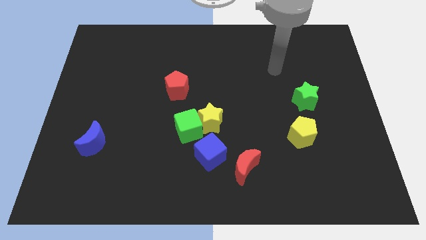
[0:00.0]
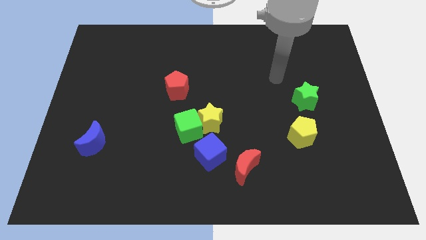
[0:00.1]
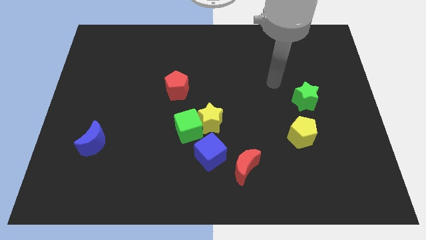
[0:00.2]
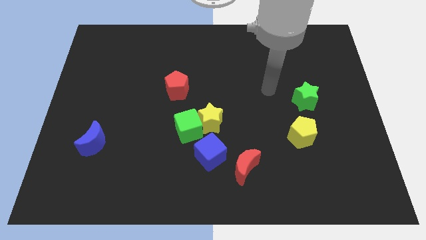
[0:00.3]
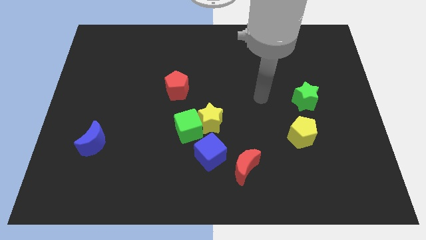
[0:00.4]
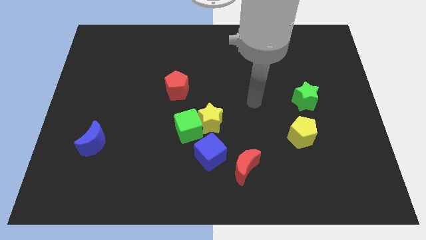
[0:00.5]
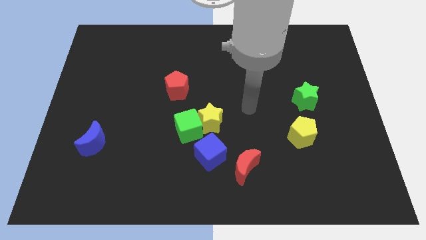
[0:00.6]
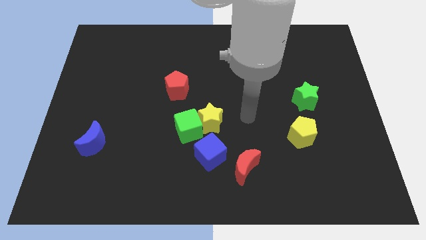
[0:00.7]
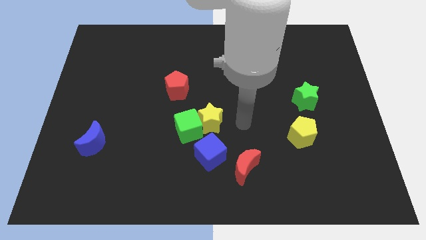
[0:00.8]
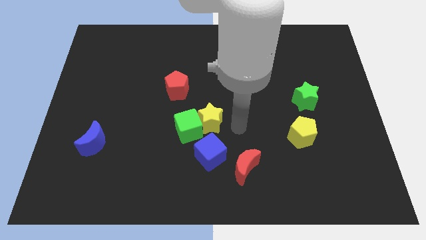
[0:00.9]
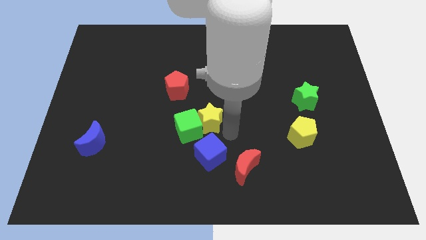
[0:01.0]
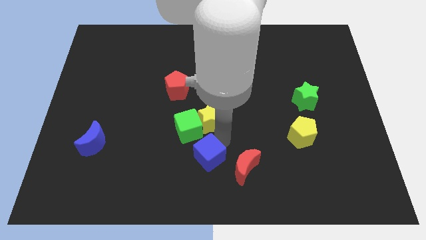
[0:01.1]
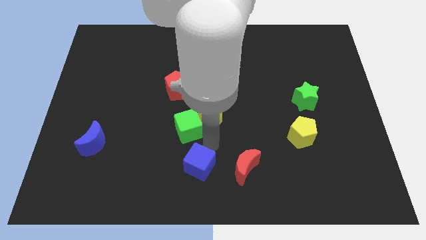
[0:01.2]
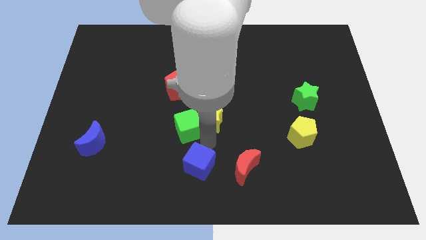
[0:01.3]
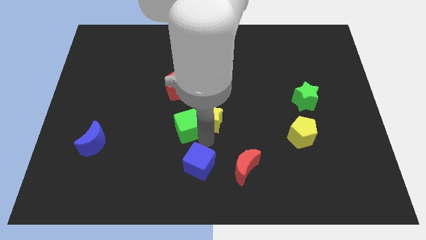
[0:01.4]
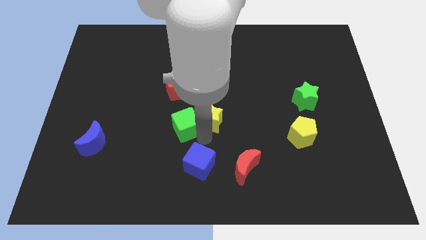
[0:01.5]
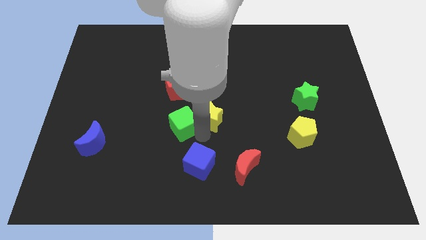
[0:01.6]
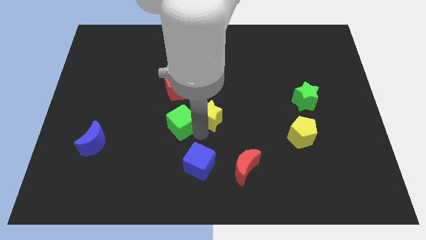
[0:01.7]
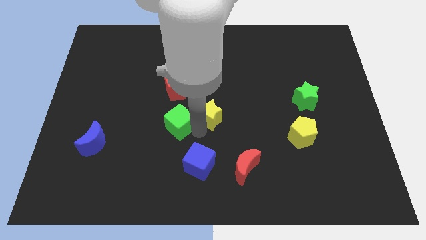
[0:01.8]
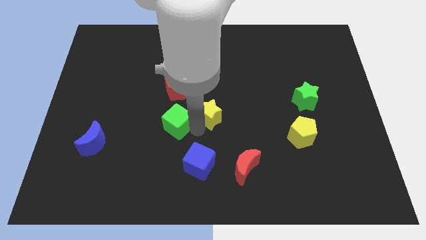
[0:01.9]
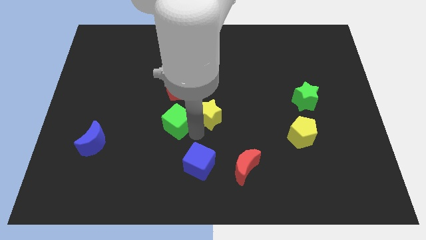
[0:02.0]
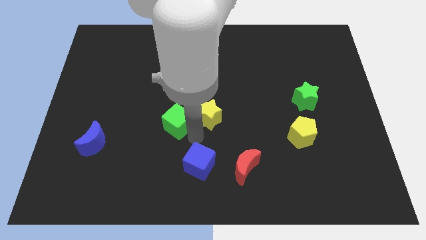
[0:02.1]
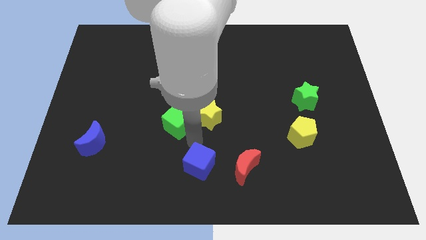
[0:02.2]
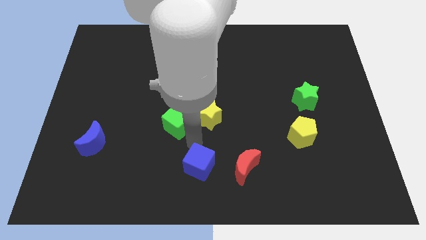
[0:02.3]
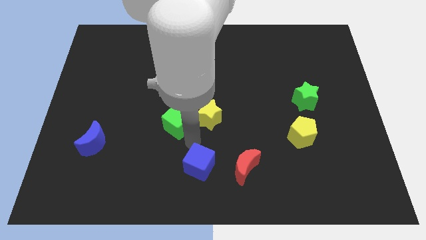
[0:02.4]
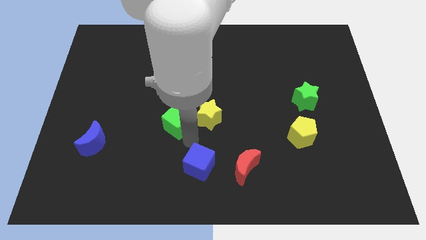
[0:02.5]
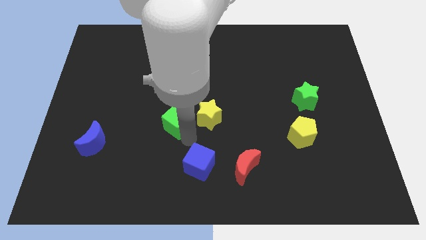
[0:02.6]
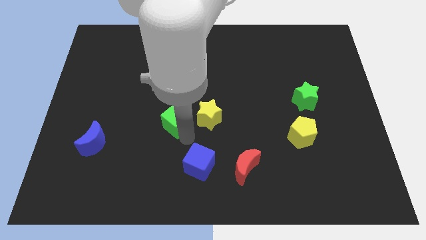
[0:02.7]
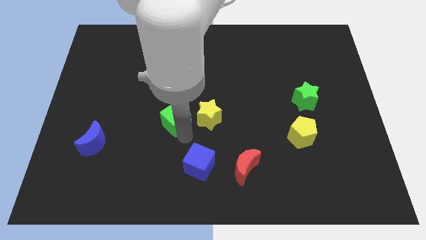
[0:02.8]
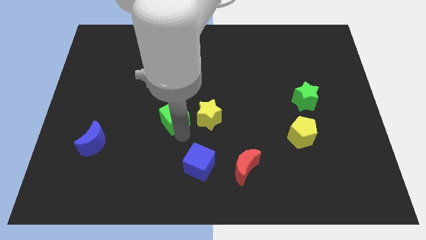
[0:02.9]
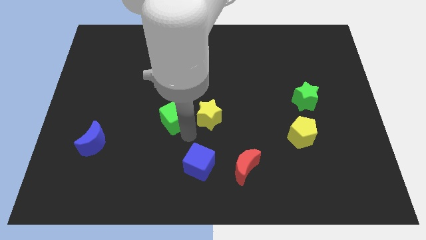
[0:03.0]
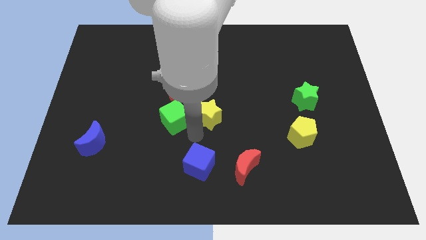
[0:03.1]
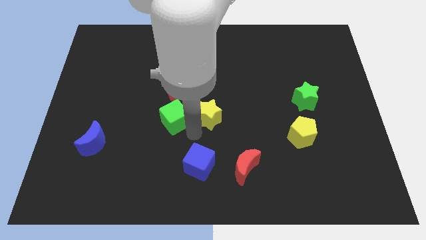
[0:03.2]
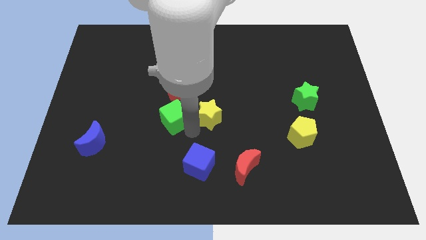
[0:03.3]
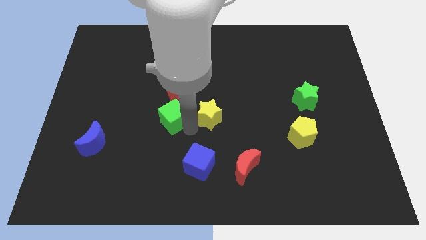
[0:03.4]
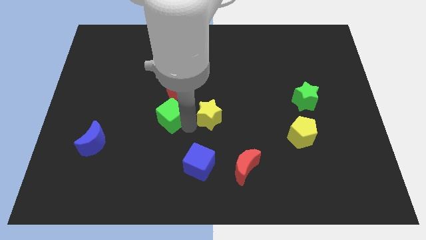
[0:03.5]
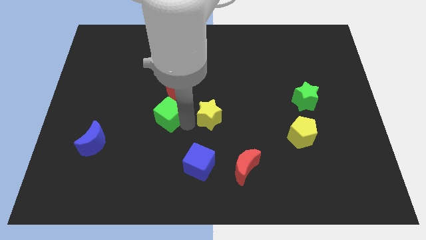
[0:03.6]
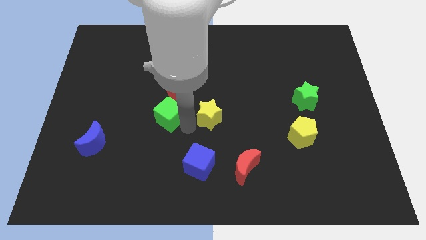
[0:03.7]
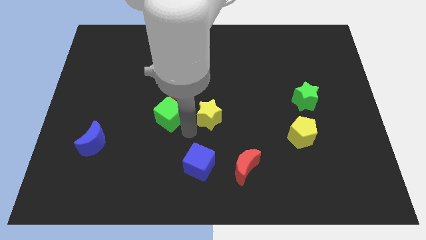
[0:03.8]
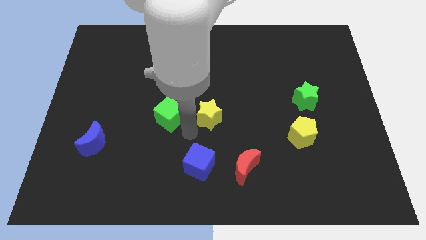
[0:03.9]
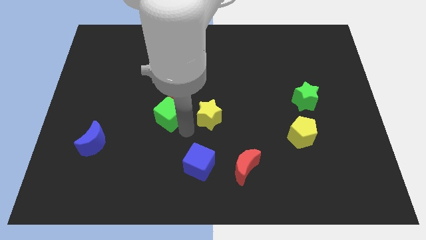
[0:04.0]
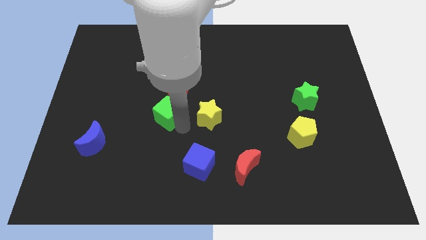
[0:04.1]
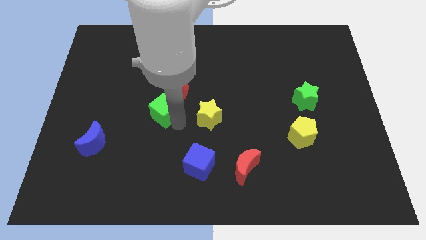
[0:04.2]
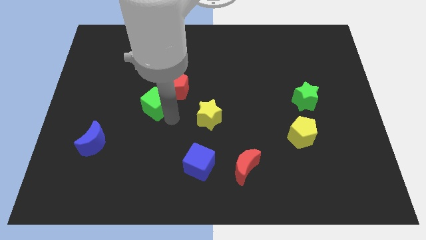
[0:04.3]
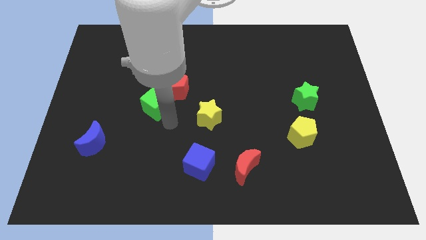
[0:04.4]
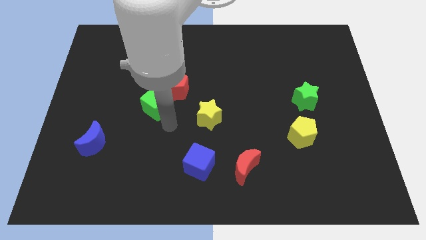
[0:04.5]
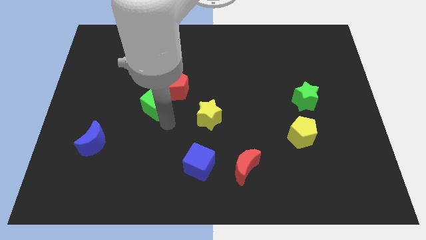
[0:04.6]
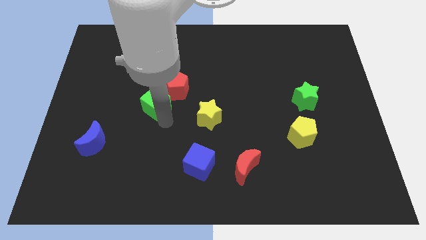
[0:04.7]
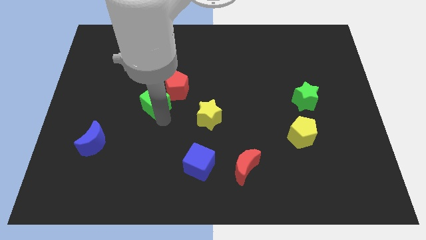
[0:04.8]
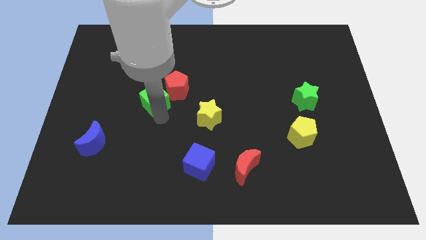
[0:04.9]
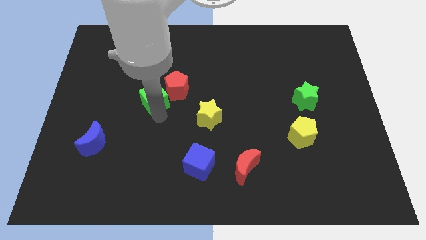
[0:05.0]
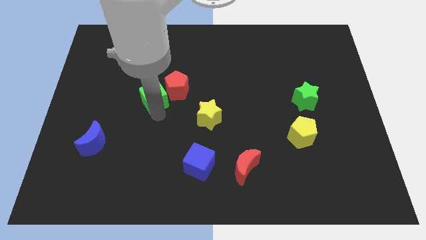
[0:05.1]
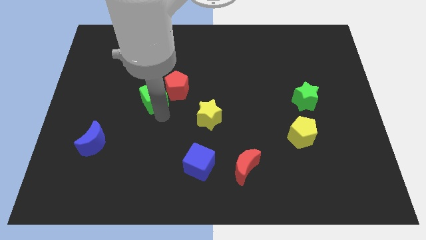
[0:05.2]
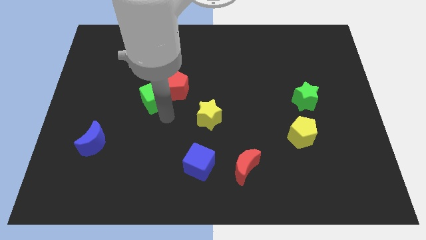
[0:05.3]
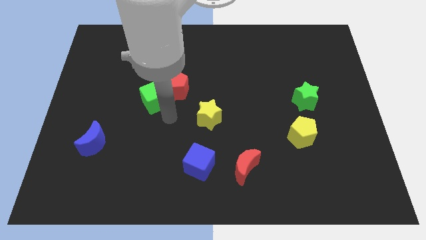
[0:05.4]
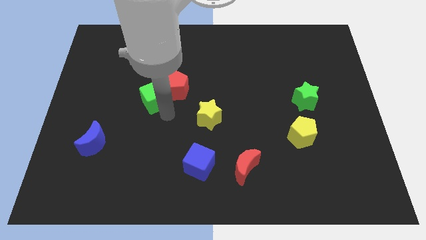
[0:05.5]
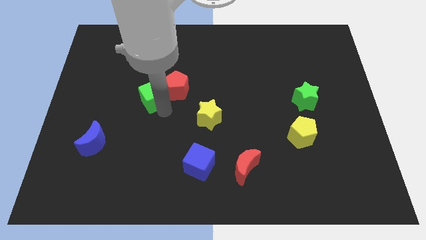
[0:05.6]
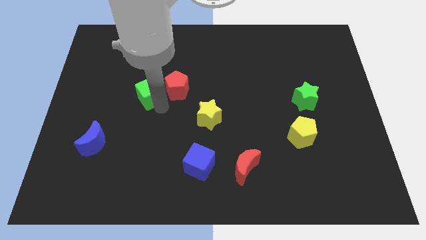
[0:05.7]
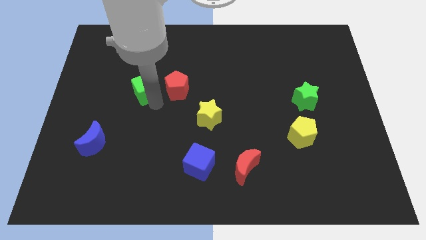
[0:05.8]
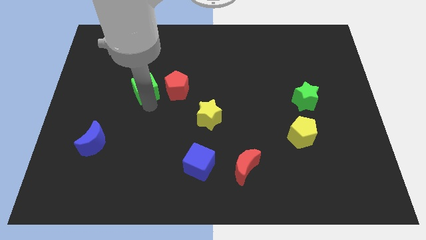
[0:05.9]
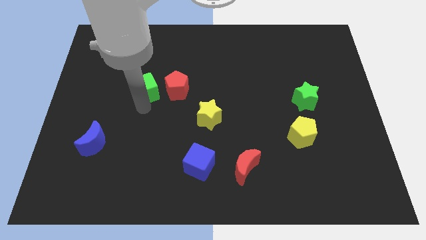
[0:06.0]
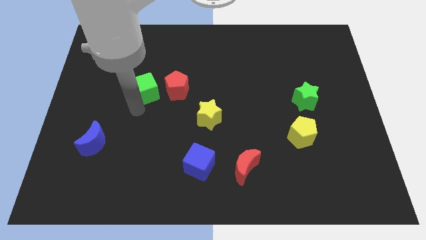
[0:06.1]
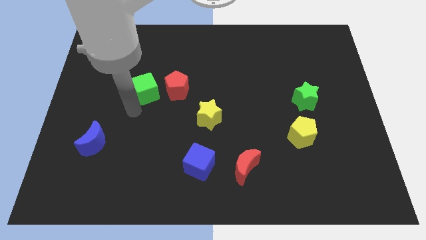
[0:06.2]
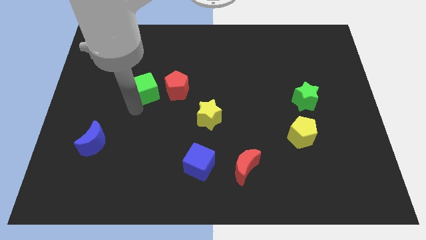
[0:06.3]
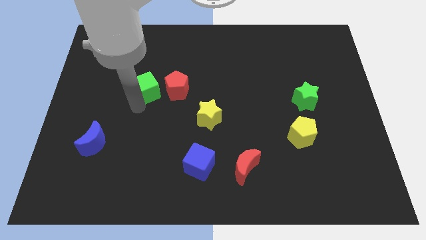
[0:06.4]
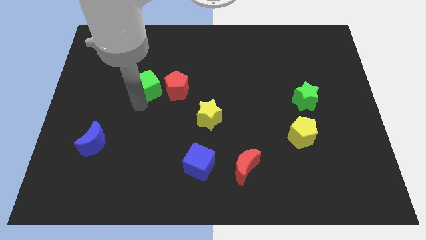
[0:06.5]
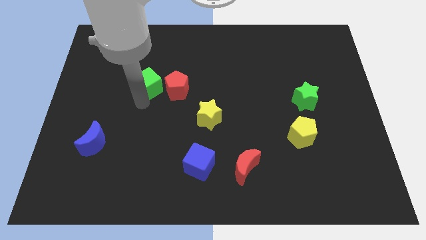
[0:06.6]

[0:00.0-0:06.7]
put the green cube diagonally up and to the left of the red pentagon

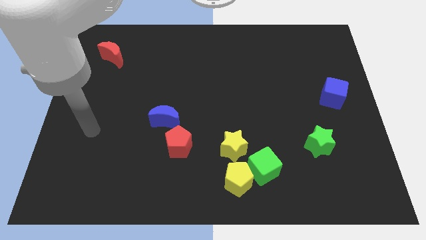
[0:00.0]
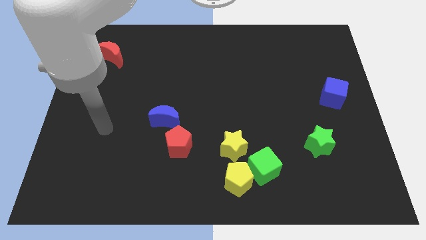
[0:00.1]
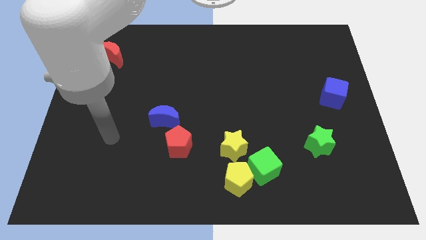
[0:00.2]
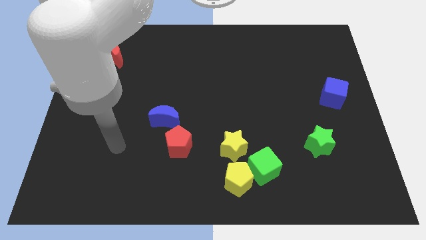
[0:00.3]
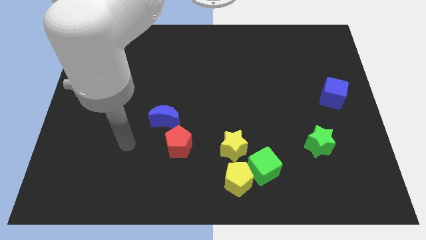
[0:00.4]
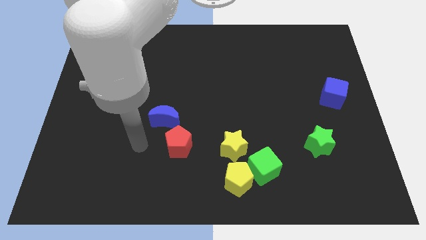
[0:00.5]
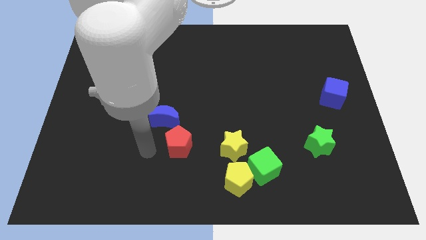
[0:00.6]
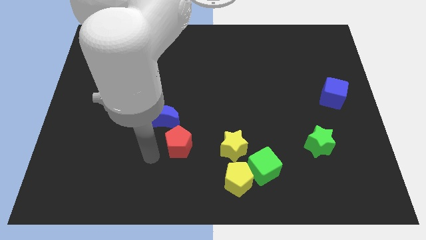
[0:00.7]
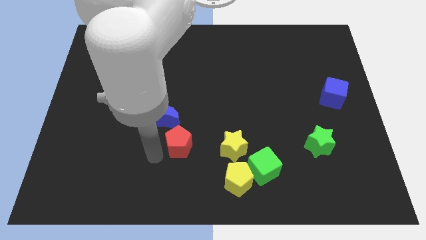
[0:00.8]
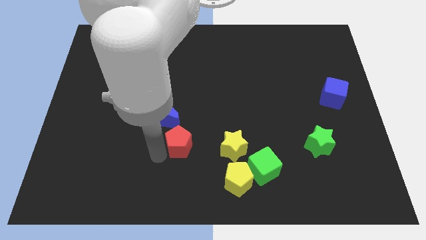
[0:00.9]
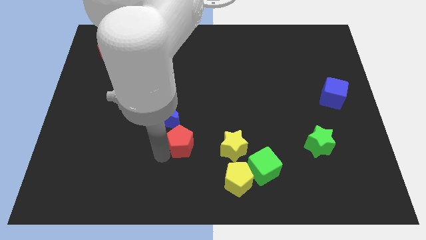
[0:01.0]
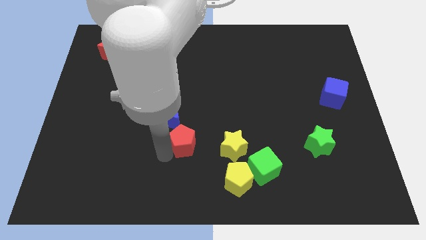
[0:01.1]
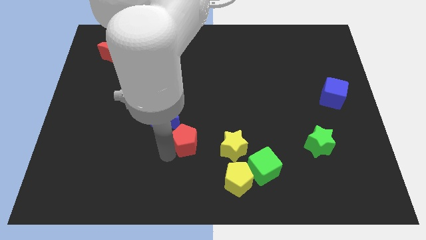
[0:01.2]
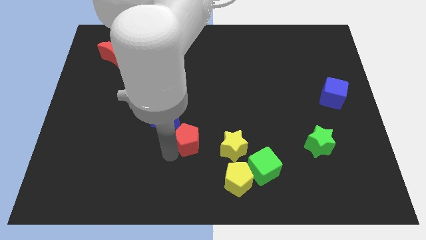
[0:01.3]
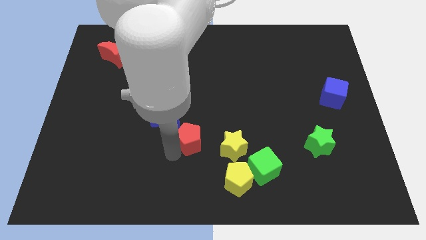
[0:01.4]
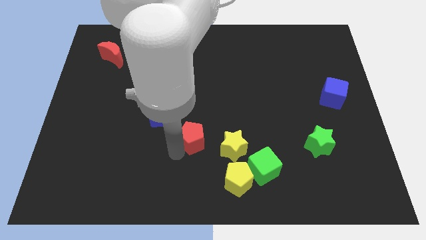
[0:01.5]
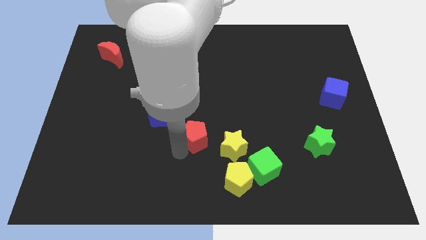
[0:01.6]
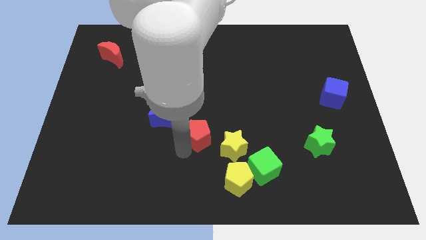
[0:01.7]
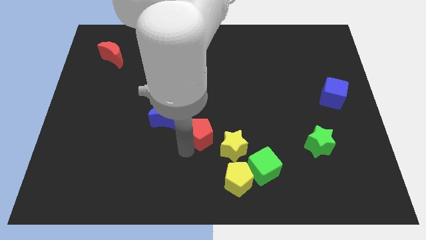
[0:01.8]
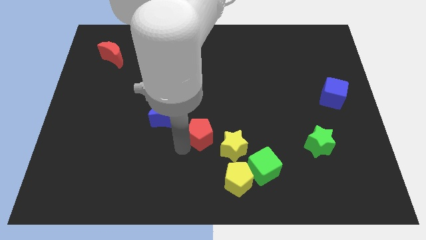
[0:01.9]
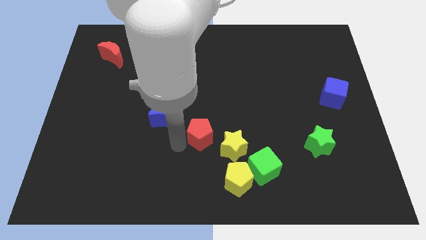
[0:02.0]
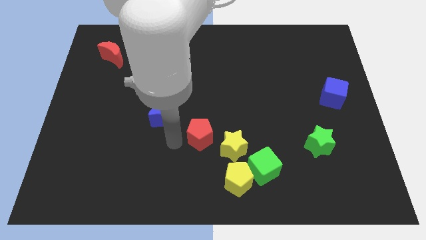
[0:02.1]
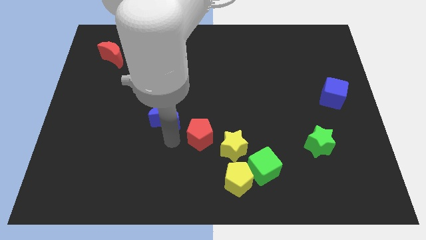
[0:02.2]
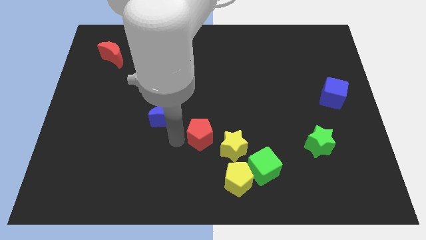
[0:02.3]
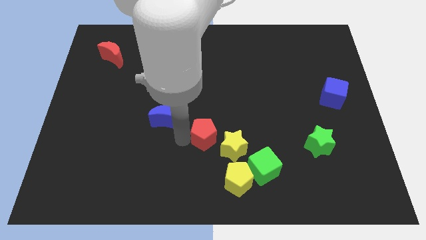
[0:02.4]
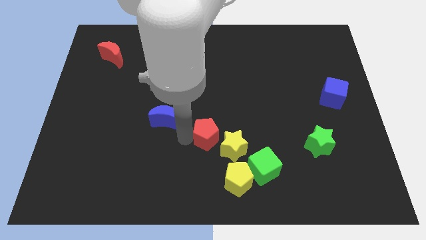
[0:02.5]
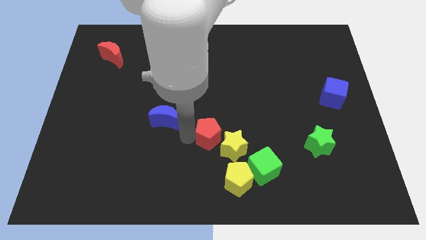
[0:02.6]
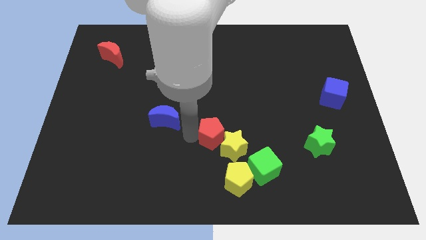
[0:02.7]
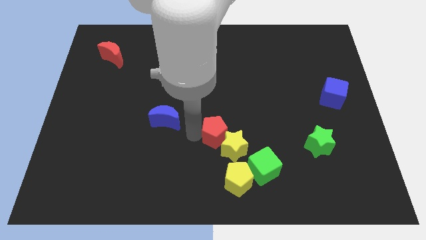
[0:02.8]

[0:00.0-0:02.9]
slide the red pentagon to the top of the yellow pentagon
